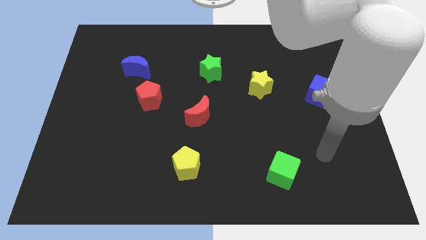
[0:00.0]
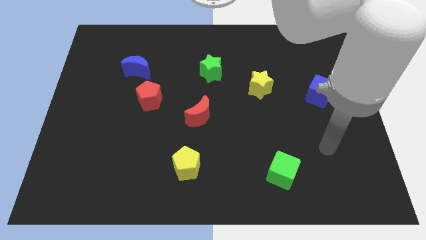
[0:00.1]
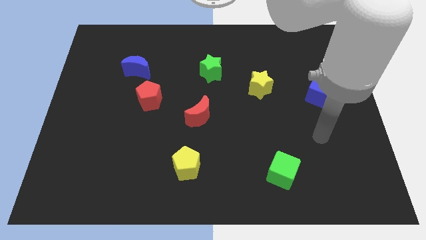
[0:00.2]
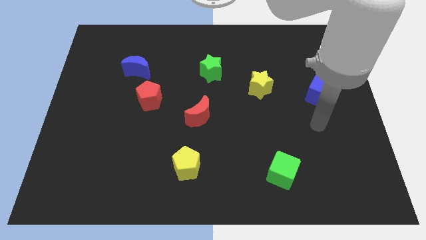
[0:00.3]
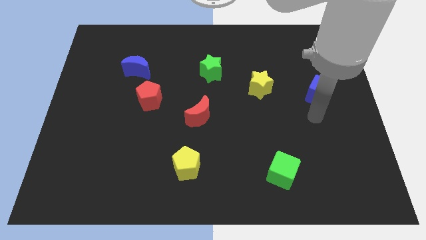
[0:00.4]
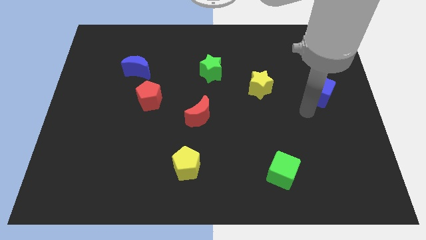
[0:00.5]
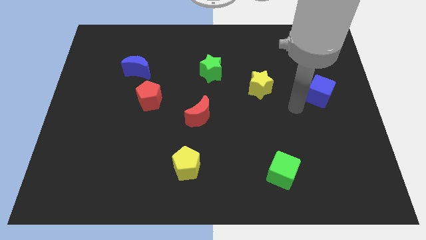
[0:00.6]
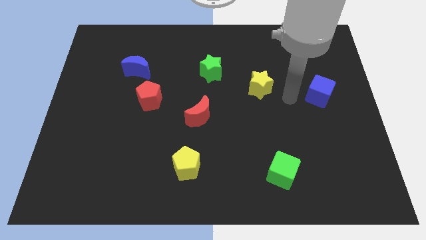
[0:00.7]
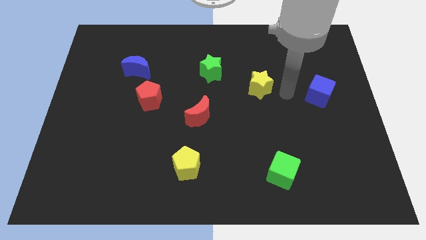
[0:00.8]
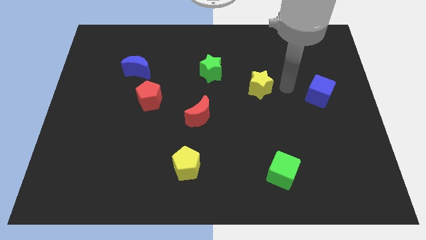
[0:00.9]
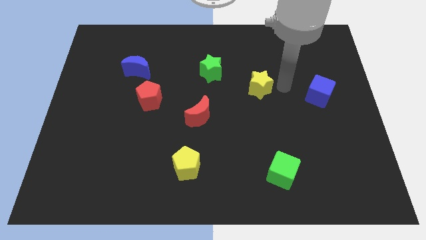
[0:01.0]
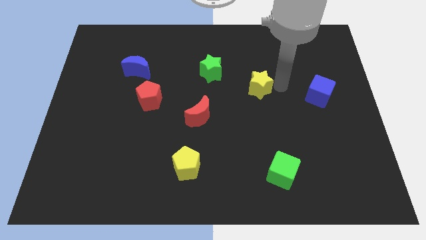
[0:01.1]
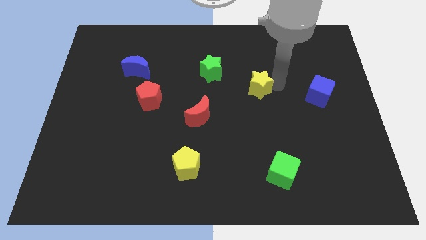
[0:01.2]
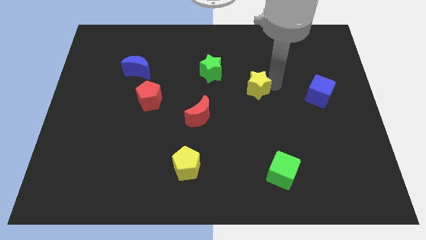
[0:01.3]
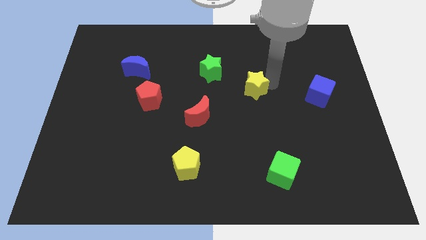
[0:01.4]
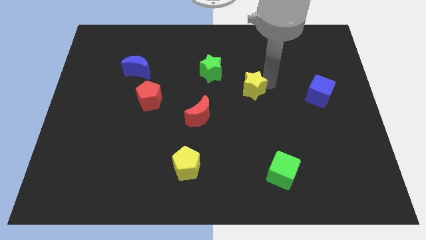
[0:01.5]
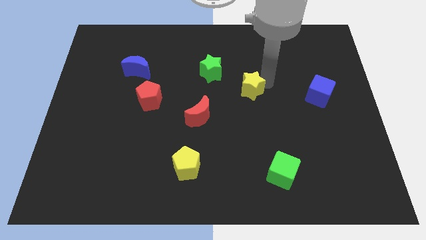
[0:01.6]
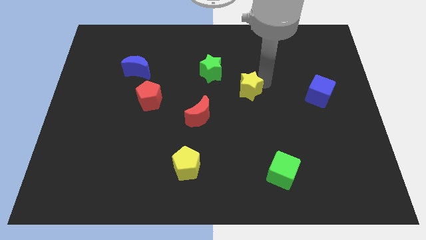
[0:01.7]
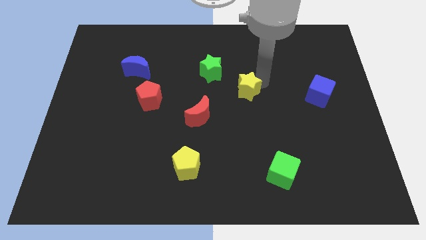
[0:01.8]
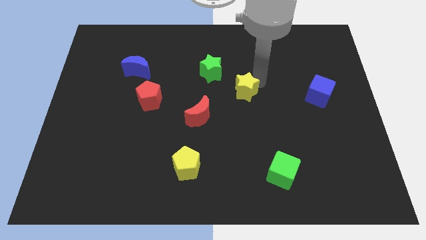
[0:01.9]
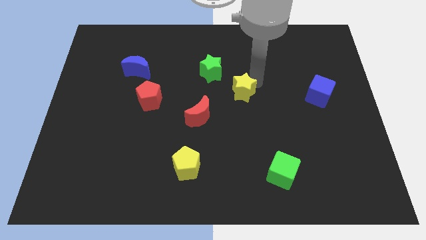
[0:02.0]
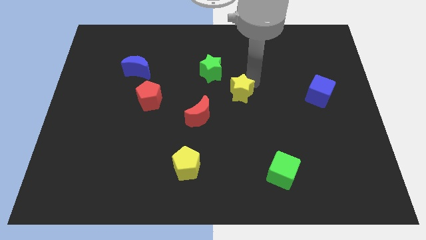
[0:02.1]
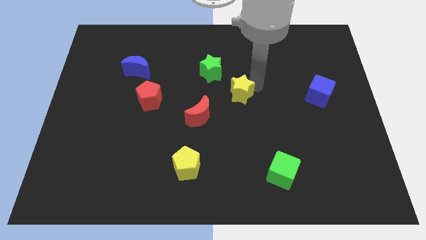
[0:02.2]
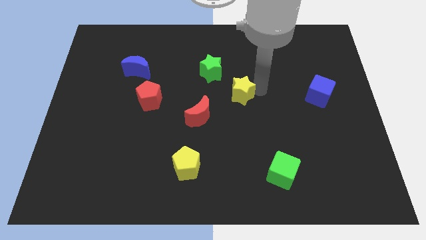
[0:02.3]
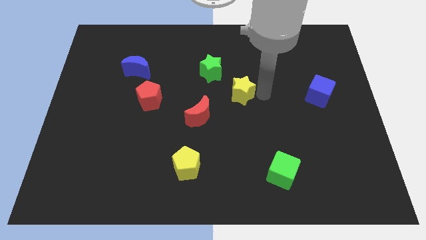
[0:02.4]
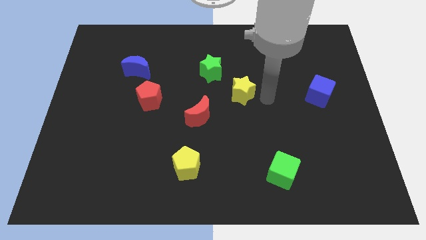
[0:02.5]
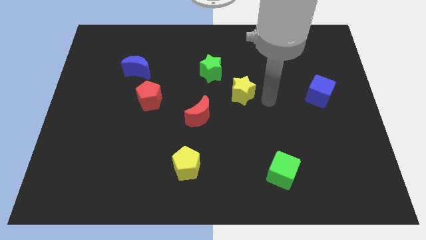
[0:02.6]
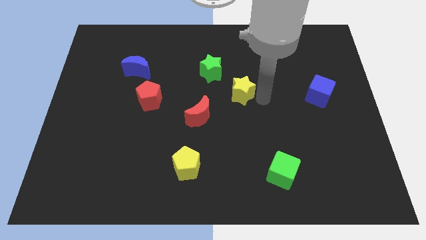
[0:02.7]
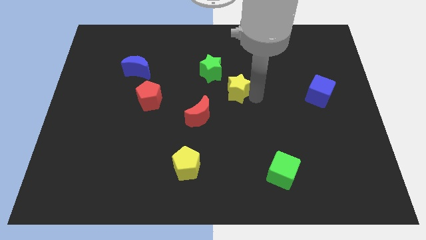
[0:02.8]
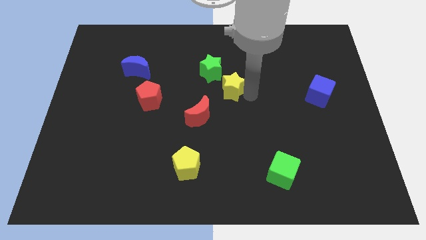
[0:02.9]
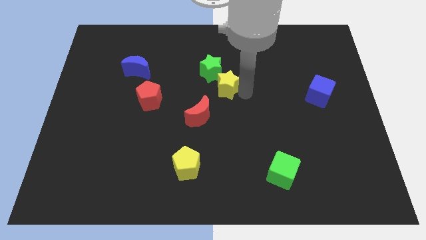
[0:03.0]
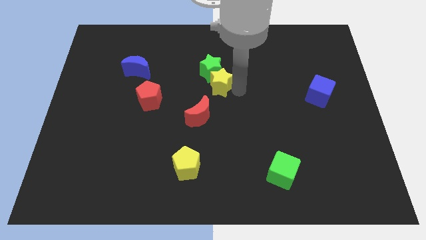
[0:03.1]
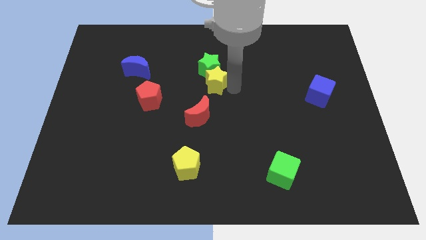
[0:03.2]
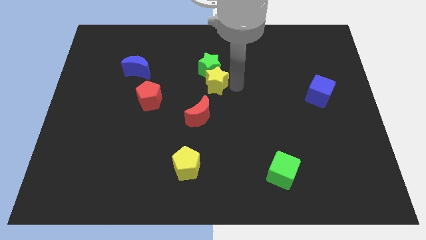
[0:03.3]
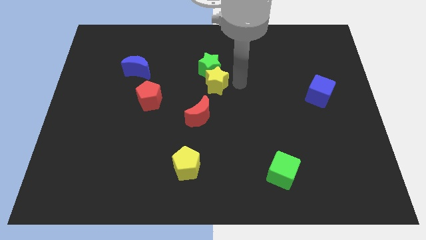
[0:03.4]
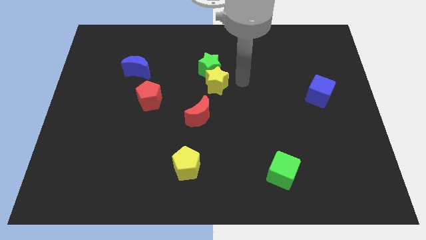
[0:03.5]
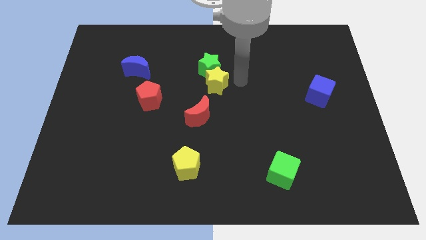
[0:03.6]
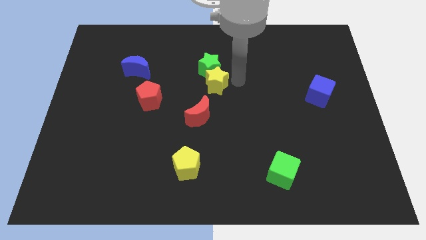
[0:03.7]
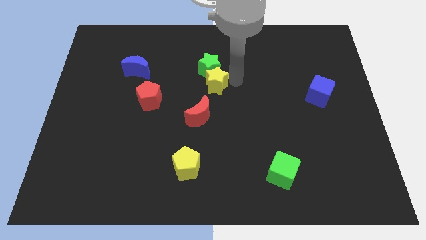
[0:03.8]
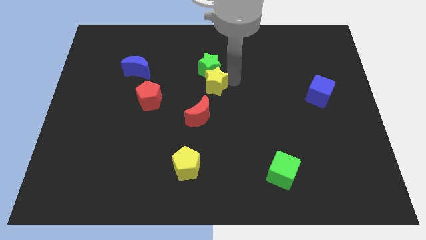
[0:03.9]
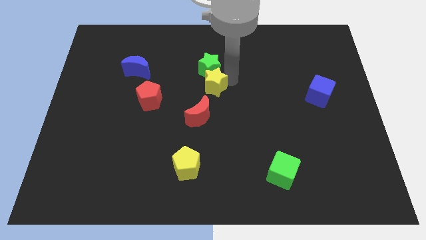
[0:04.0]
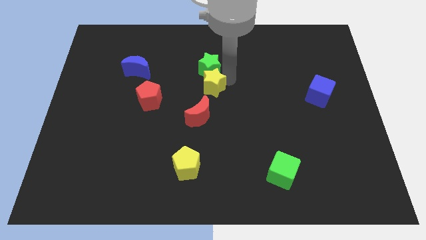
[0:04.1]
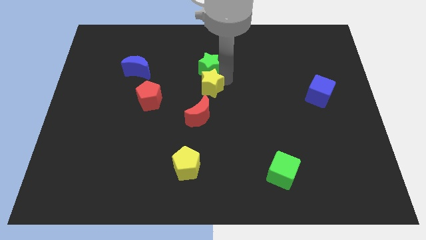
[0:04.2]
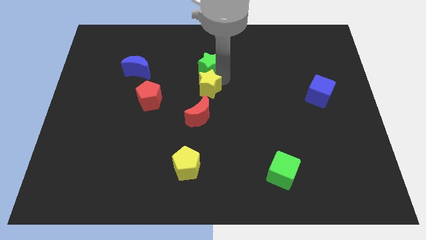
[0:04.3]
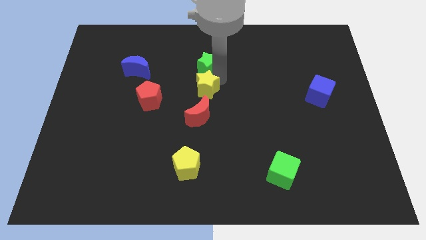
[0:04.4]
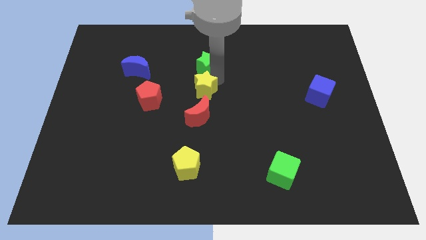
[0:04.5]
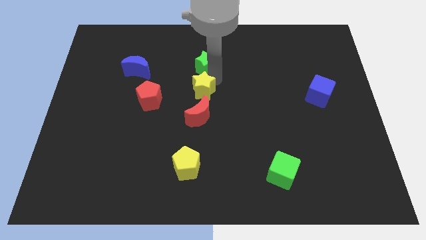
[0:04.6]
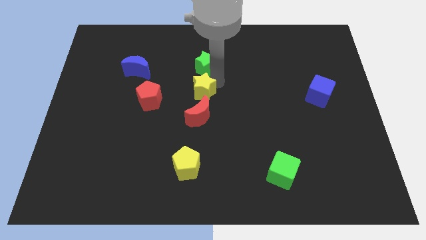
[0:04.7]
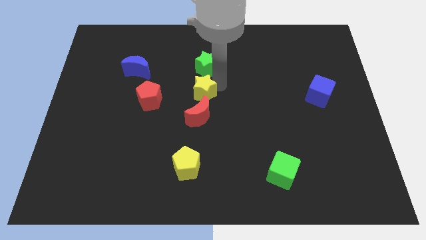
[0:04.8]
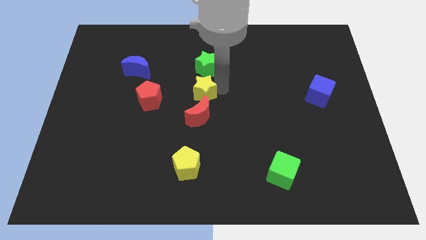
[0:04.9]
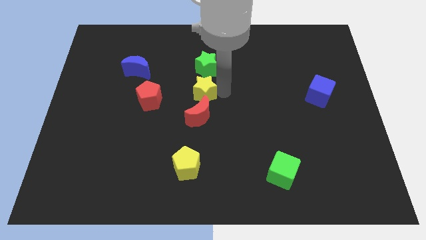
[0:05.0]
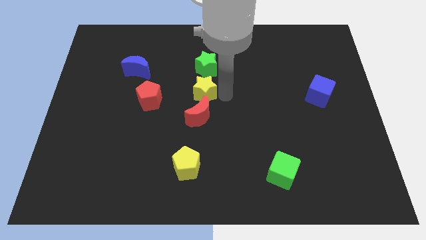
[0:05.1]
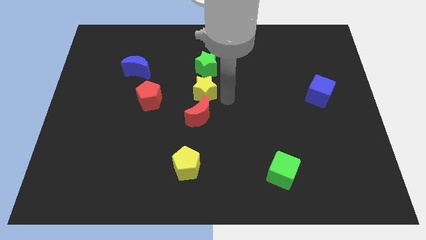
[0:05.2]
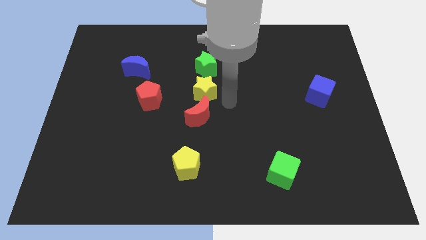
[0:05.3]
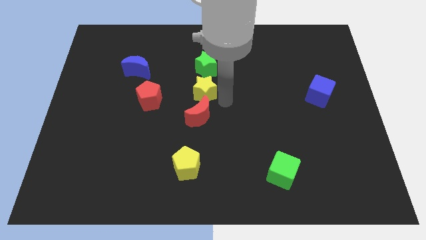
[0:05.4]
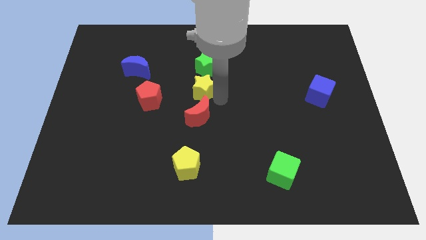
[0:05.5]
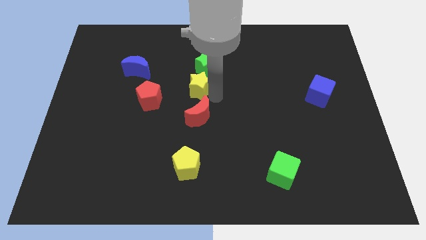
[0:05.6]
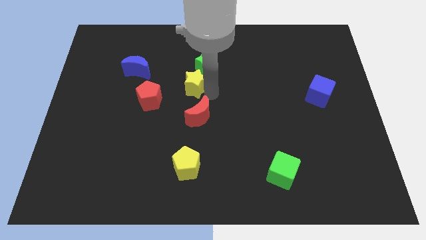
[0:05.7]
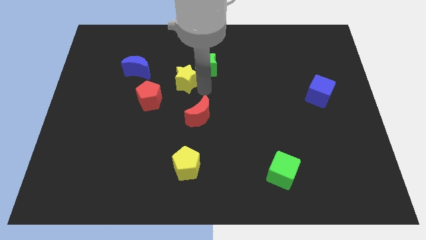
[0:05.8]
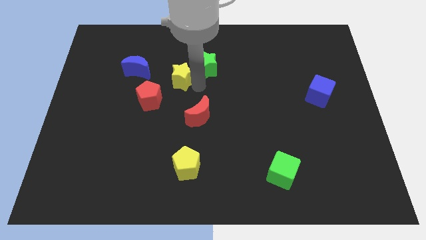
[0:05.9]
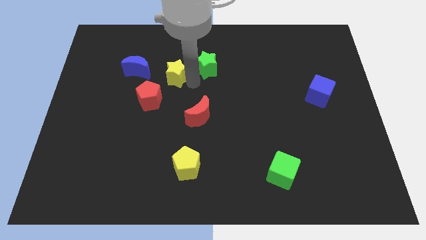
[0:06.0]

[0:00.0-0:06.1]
move the yellow star to the left

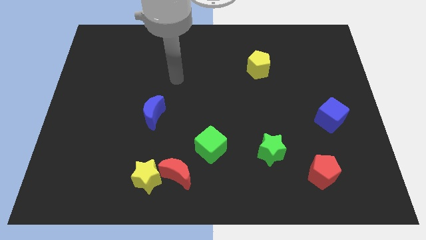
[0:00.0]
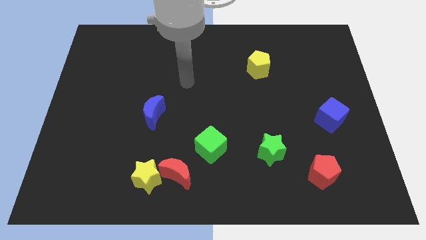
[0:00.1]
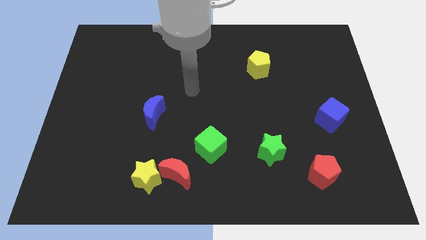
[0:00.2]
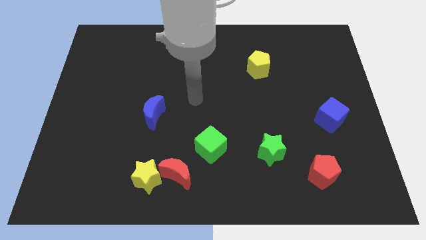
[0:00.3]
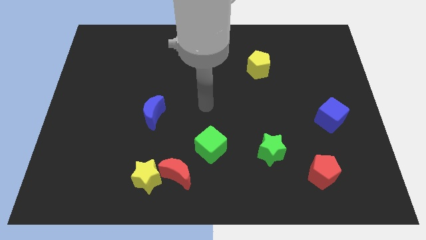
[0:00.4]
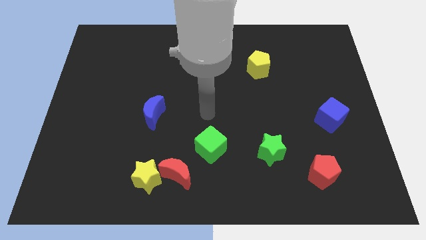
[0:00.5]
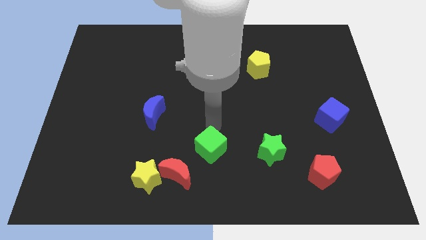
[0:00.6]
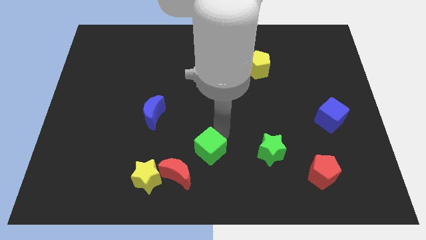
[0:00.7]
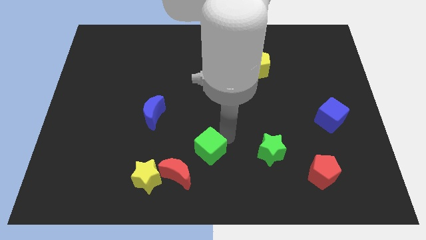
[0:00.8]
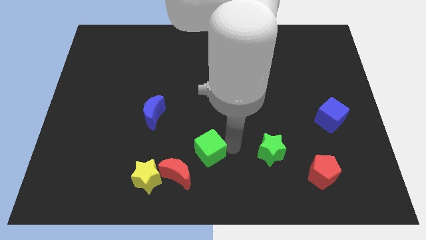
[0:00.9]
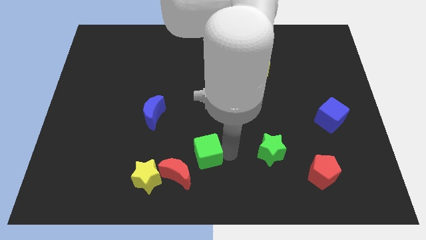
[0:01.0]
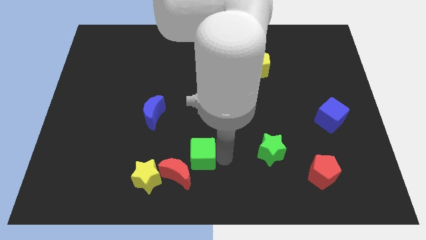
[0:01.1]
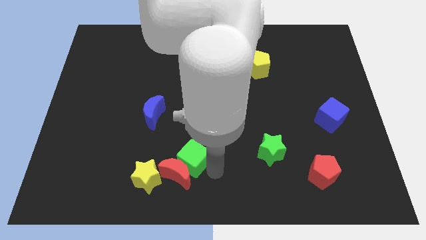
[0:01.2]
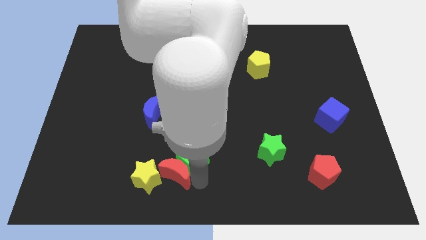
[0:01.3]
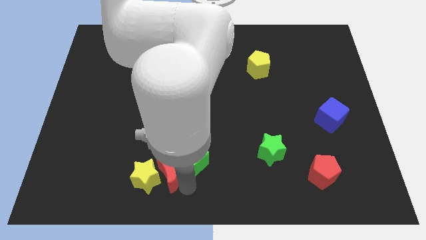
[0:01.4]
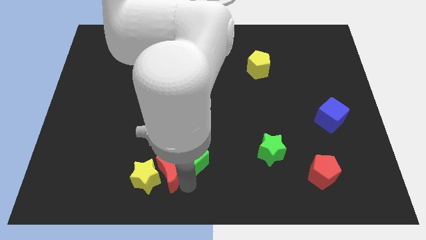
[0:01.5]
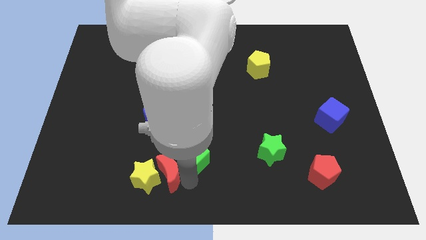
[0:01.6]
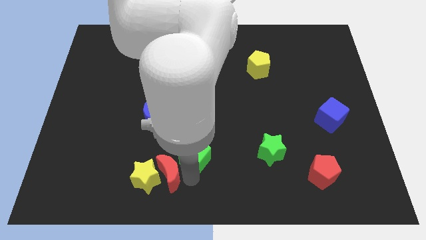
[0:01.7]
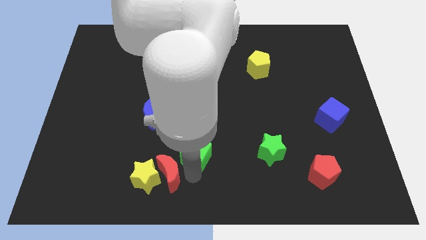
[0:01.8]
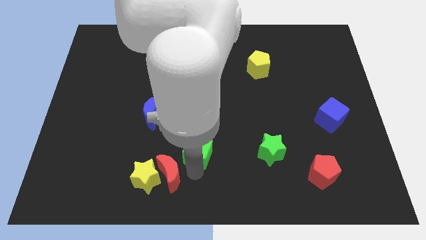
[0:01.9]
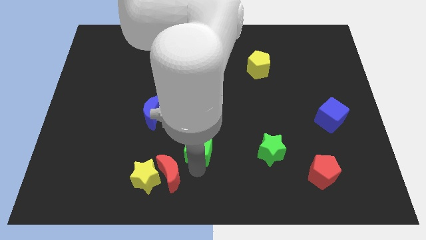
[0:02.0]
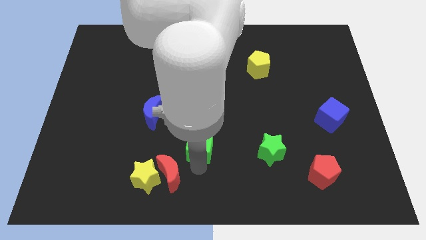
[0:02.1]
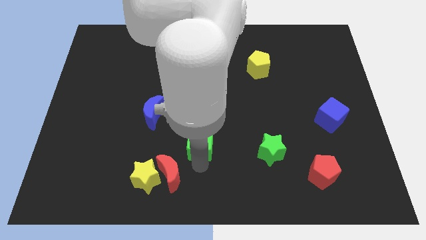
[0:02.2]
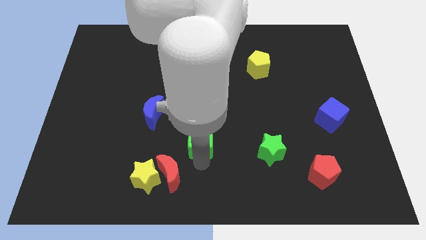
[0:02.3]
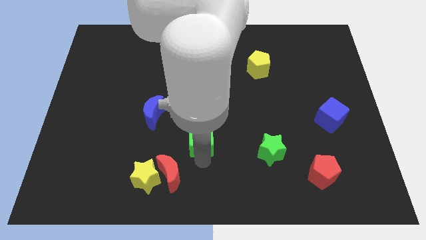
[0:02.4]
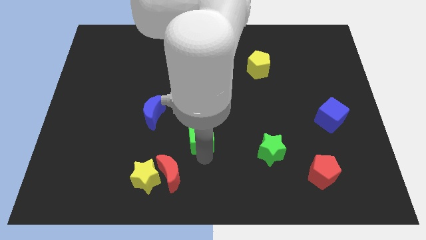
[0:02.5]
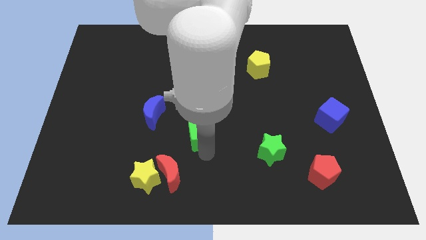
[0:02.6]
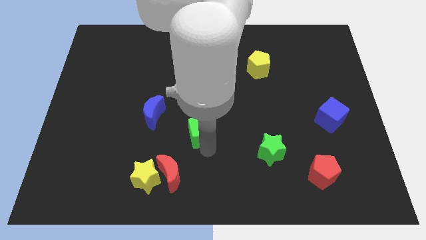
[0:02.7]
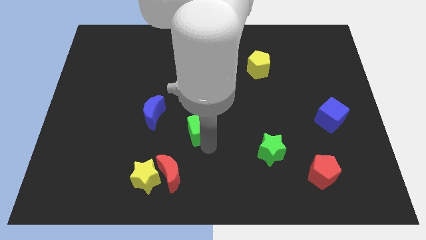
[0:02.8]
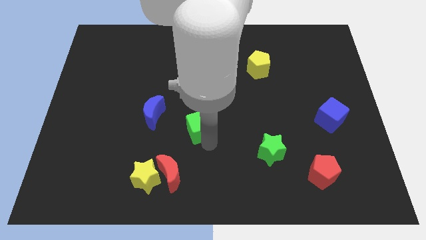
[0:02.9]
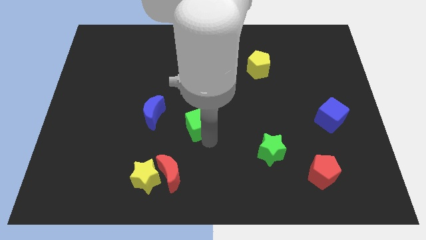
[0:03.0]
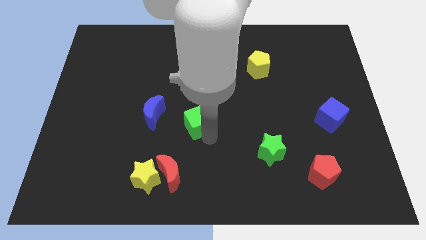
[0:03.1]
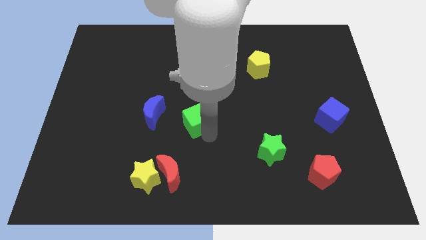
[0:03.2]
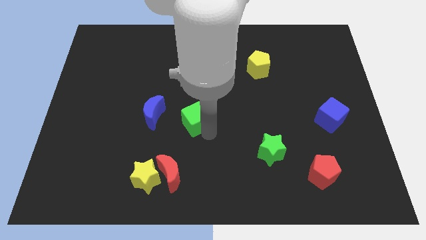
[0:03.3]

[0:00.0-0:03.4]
move the green cube slightly diagonally up and to the left
